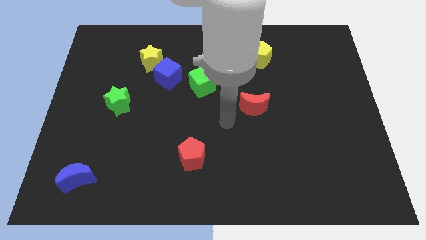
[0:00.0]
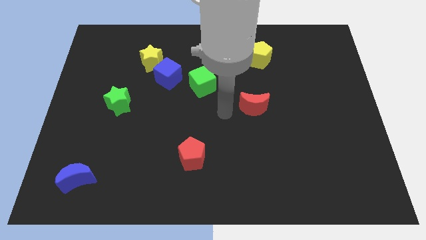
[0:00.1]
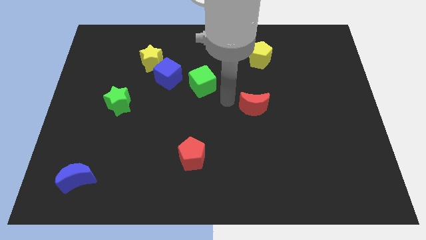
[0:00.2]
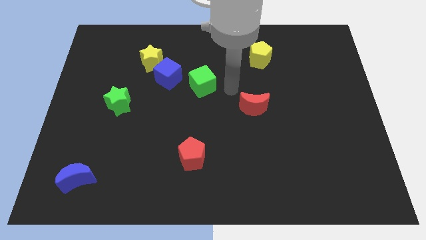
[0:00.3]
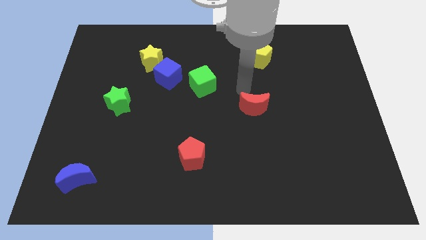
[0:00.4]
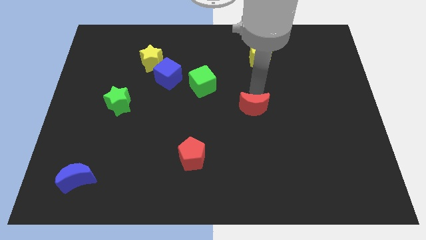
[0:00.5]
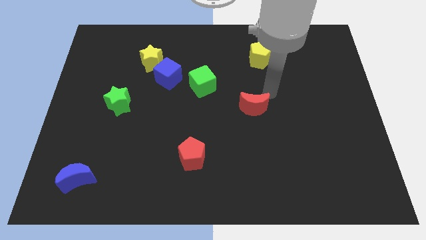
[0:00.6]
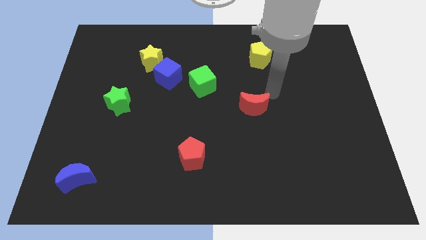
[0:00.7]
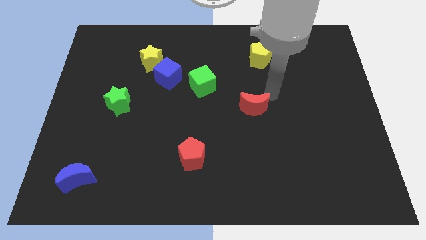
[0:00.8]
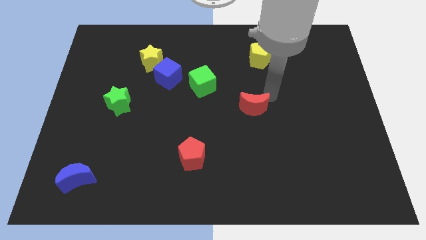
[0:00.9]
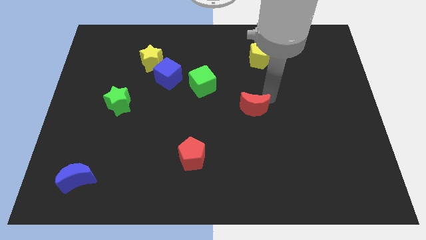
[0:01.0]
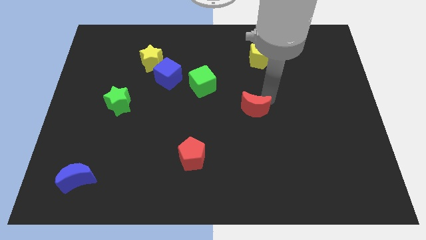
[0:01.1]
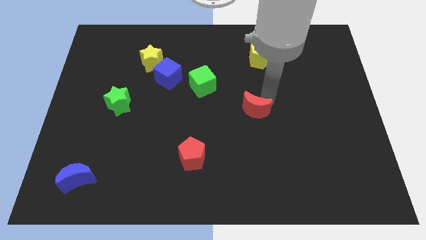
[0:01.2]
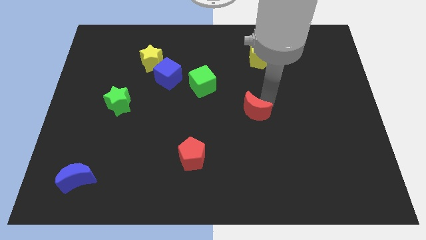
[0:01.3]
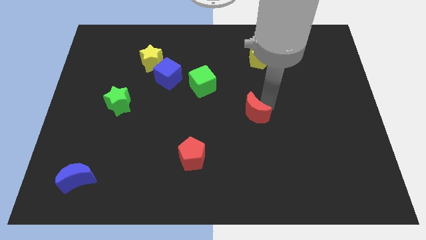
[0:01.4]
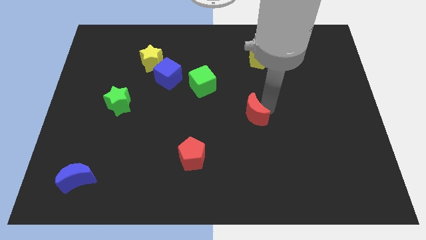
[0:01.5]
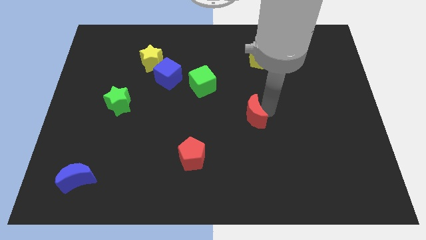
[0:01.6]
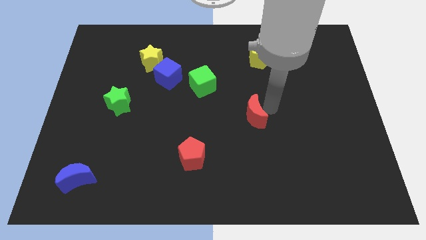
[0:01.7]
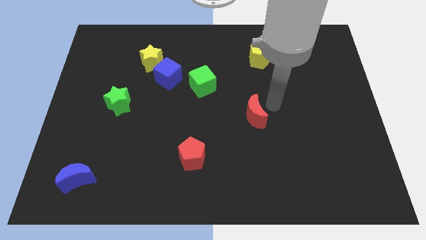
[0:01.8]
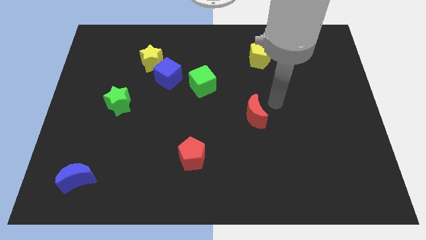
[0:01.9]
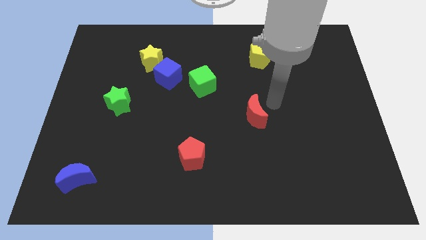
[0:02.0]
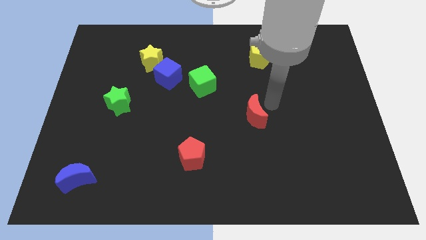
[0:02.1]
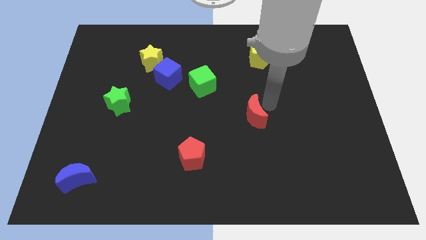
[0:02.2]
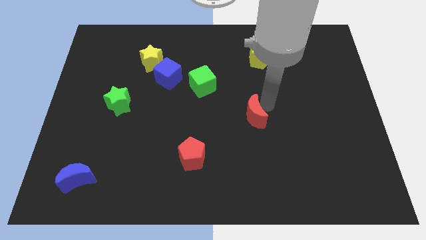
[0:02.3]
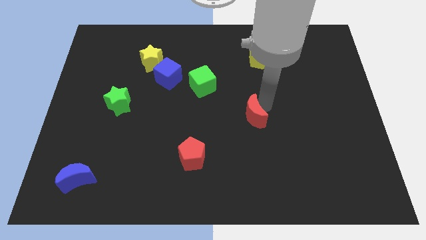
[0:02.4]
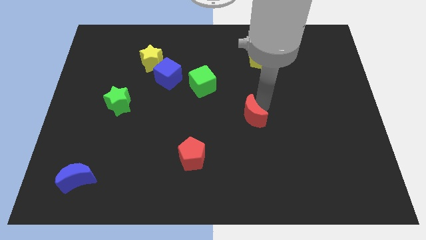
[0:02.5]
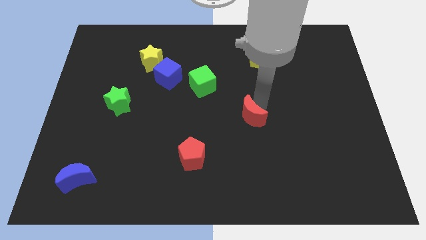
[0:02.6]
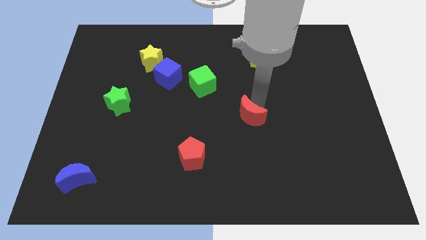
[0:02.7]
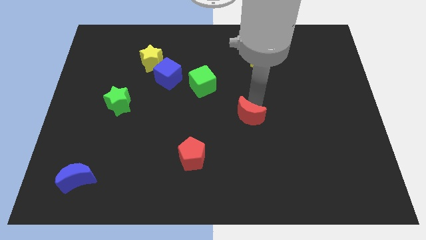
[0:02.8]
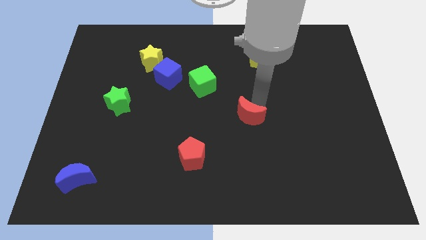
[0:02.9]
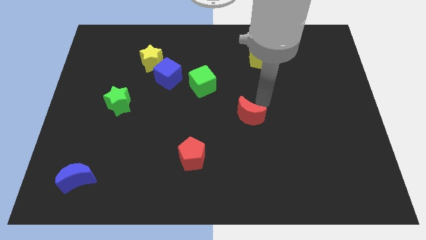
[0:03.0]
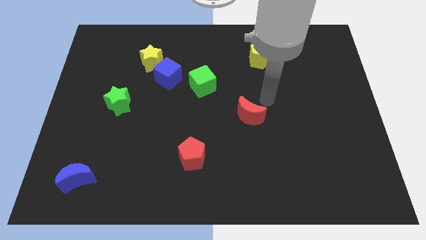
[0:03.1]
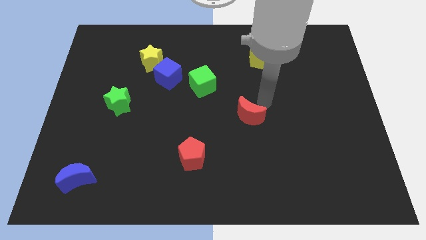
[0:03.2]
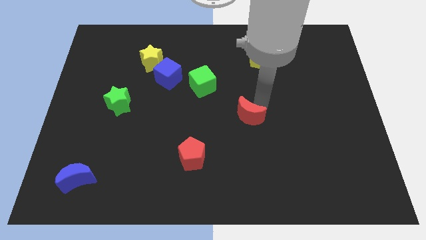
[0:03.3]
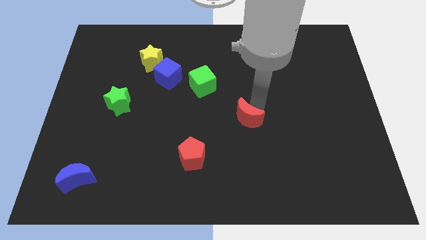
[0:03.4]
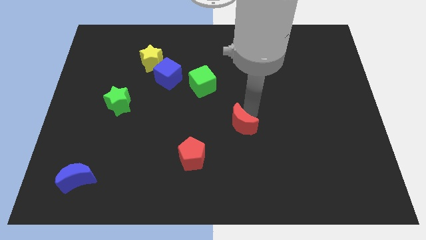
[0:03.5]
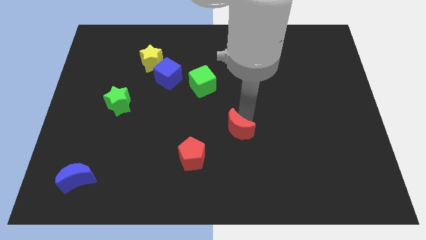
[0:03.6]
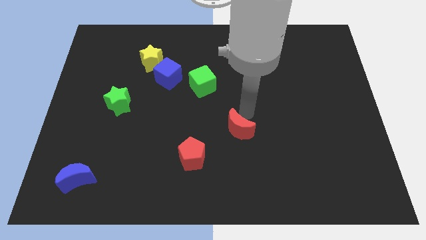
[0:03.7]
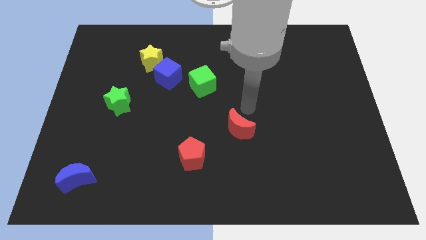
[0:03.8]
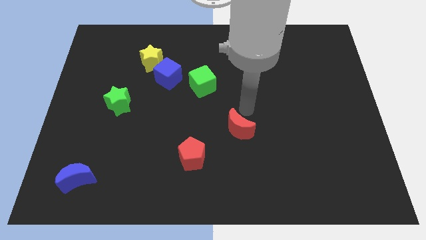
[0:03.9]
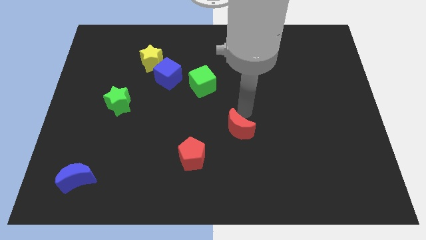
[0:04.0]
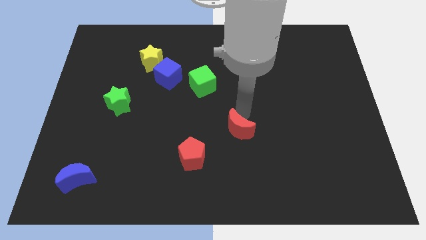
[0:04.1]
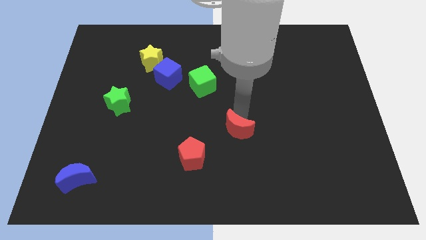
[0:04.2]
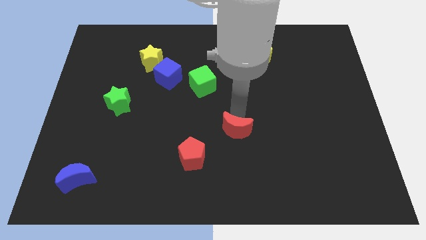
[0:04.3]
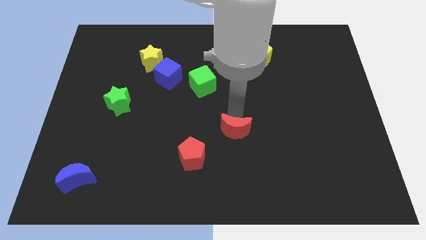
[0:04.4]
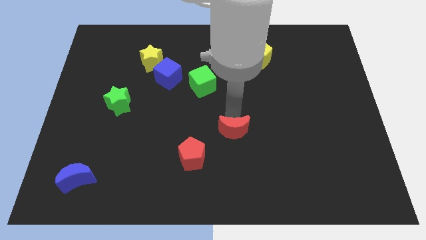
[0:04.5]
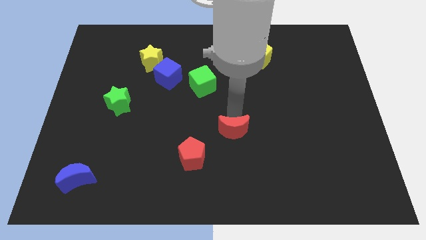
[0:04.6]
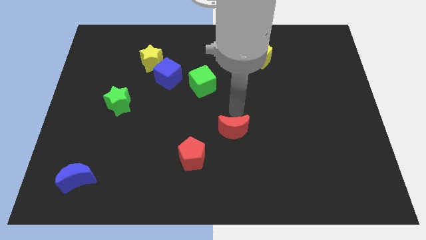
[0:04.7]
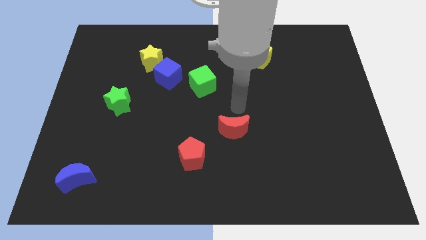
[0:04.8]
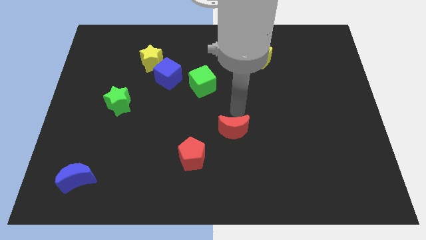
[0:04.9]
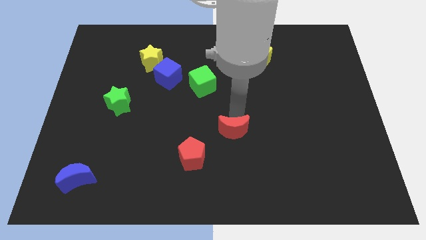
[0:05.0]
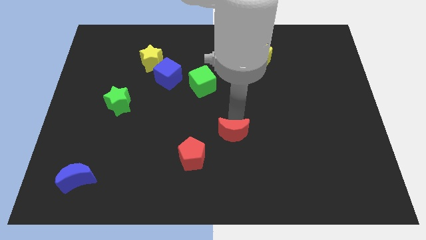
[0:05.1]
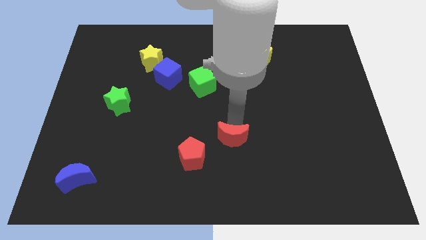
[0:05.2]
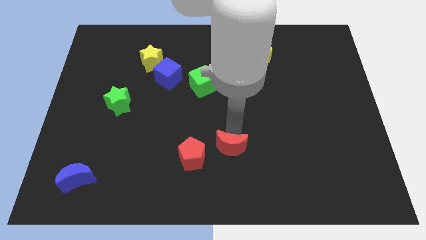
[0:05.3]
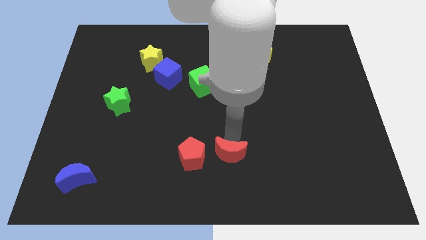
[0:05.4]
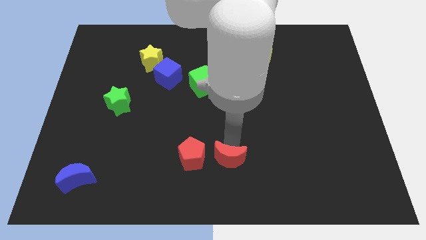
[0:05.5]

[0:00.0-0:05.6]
put the red moon to the bottom side

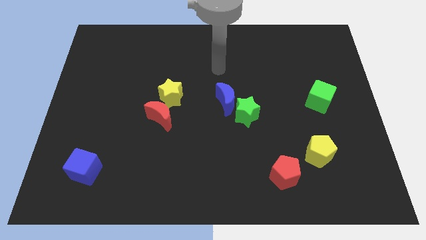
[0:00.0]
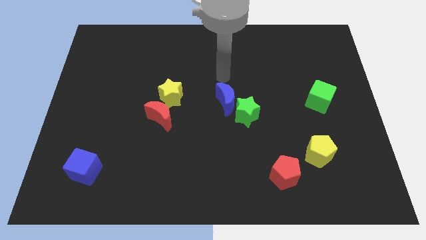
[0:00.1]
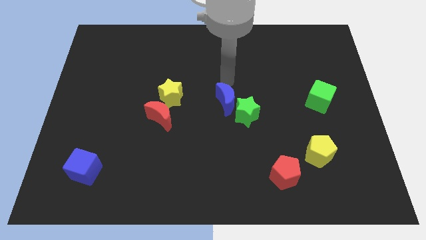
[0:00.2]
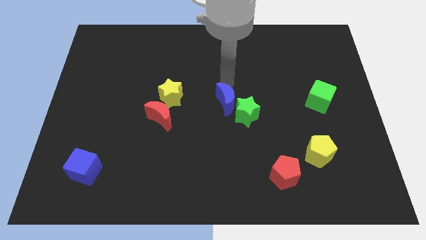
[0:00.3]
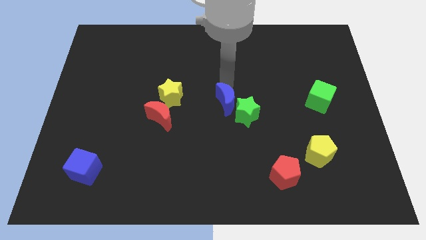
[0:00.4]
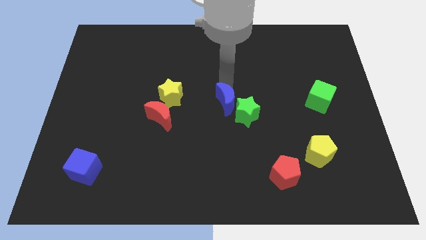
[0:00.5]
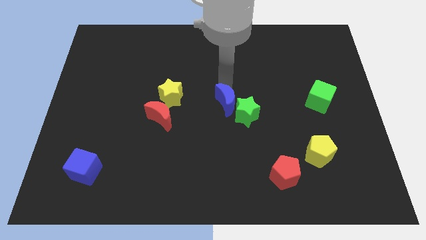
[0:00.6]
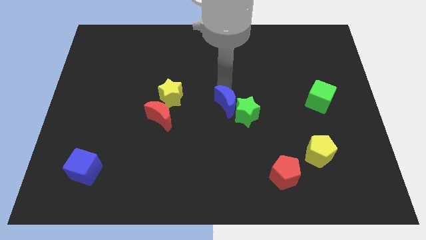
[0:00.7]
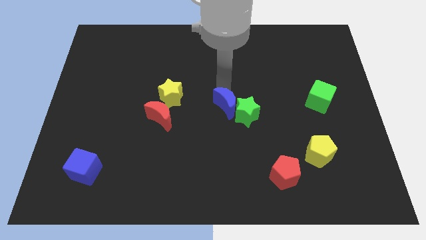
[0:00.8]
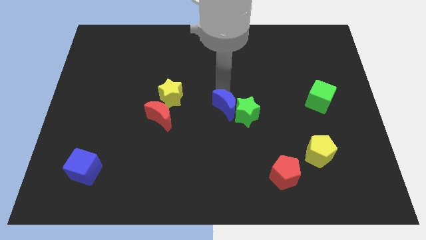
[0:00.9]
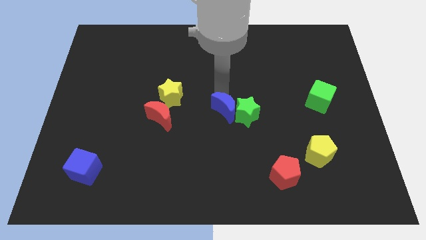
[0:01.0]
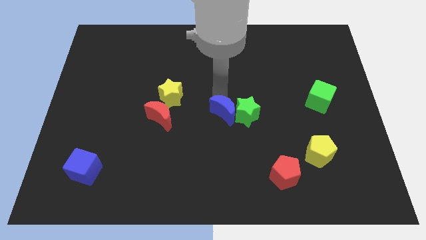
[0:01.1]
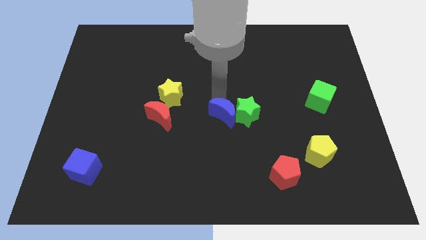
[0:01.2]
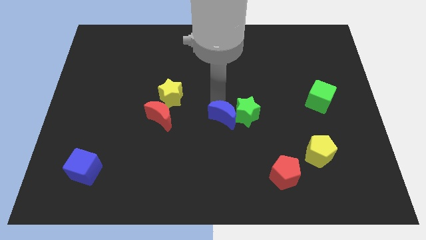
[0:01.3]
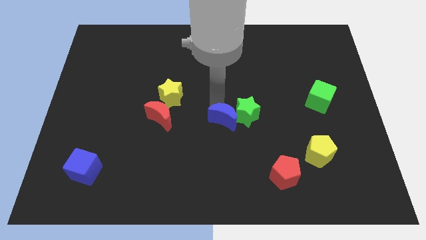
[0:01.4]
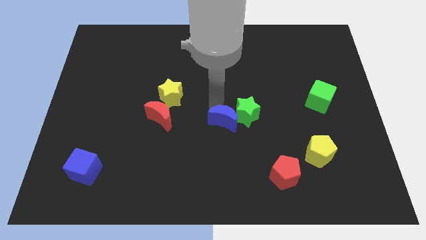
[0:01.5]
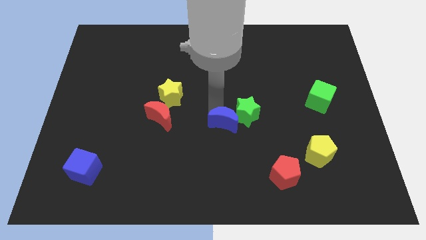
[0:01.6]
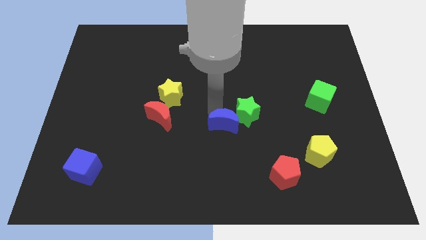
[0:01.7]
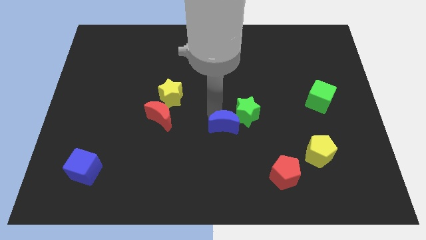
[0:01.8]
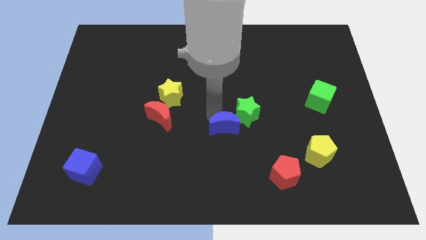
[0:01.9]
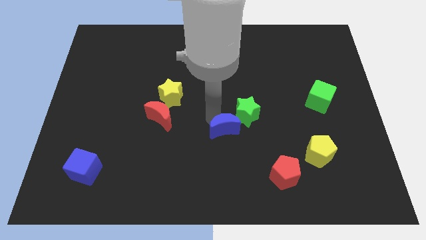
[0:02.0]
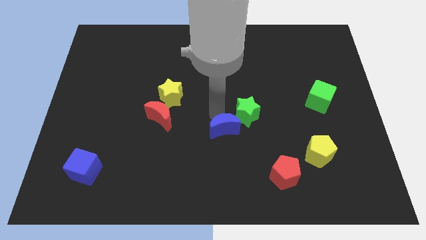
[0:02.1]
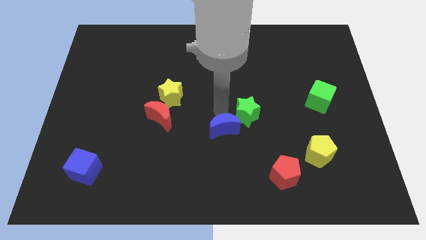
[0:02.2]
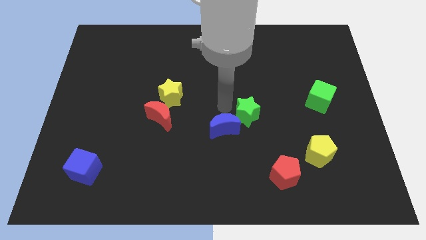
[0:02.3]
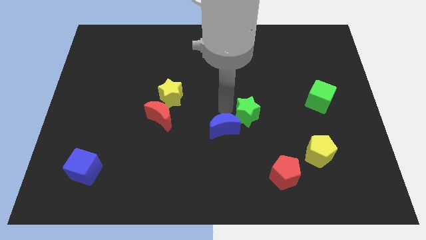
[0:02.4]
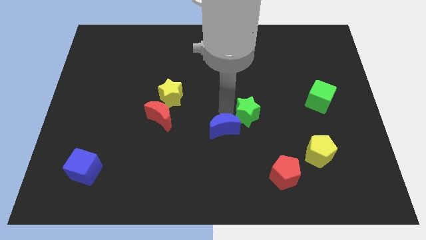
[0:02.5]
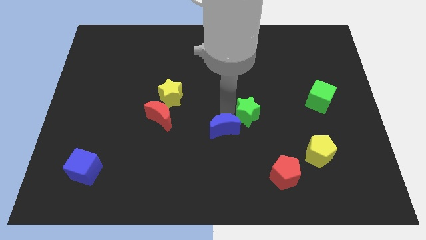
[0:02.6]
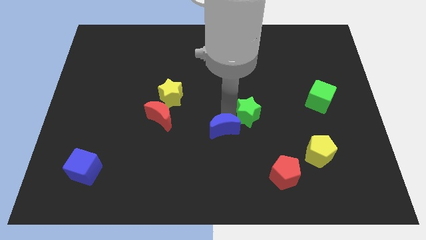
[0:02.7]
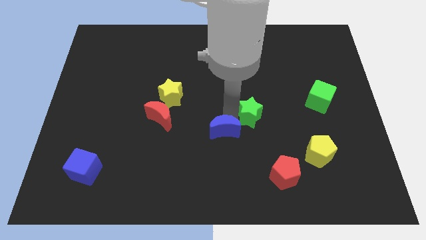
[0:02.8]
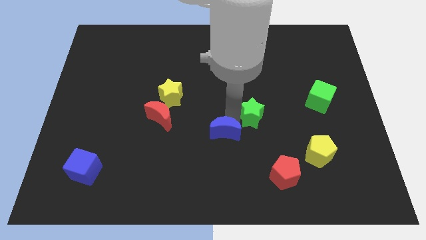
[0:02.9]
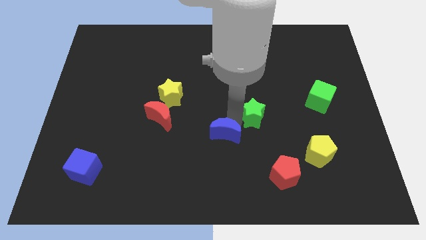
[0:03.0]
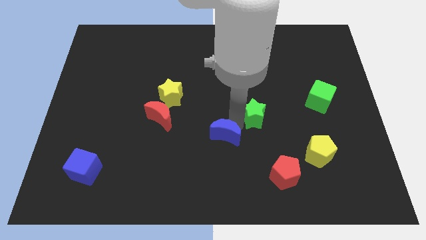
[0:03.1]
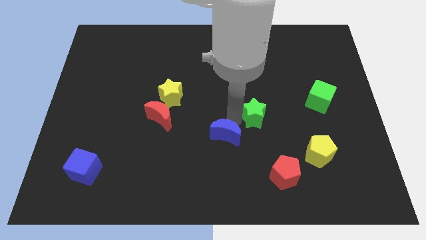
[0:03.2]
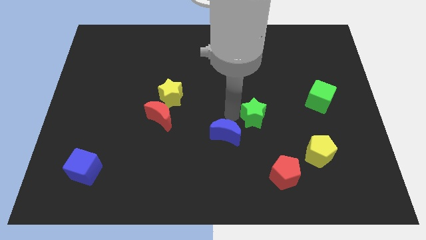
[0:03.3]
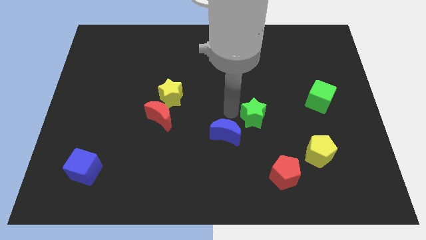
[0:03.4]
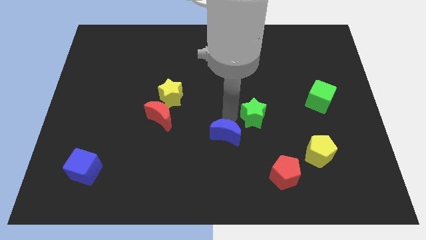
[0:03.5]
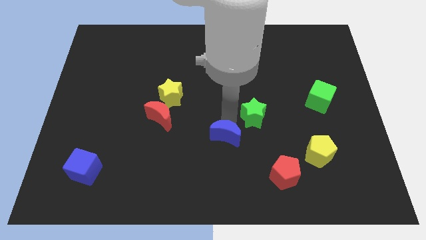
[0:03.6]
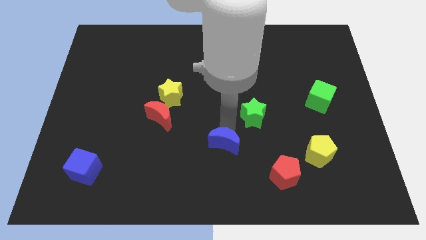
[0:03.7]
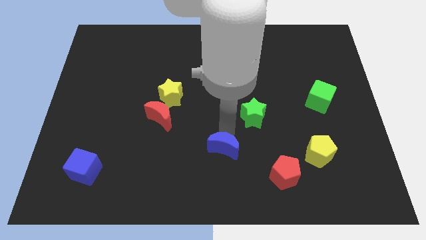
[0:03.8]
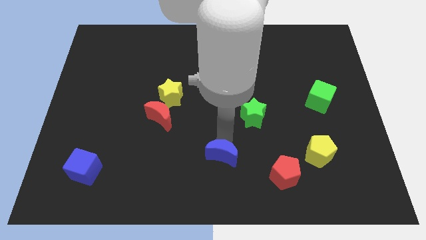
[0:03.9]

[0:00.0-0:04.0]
push the blue moon to the bottom side
